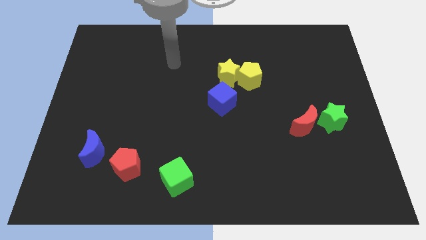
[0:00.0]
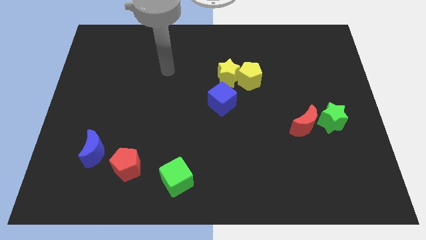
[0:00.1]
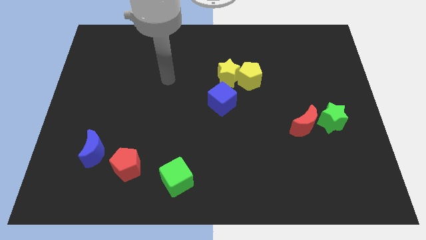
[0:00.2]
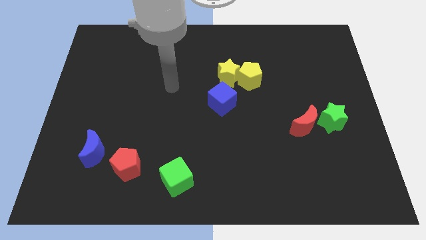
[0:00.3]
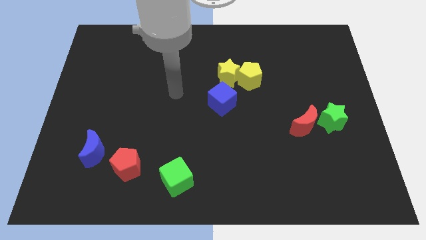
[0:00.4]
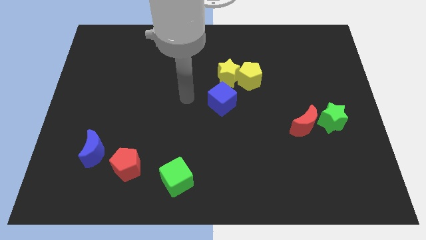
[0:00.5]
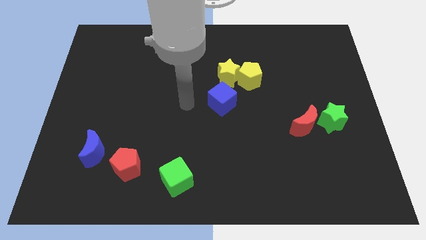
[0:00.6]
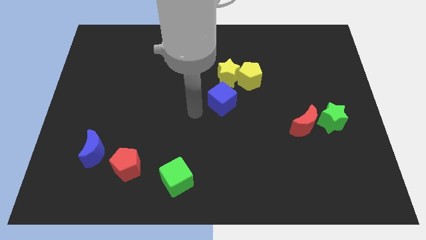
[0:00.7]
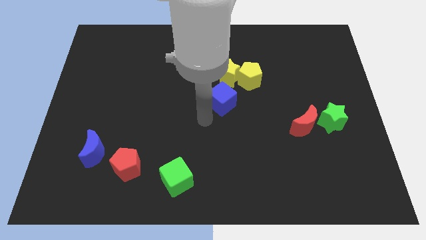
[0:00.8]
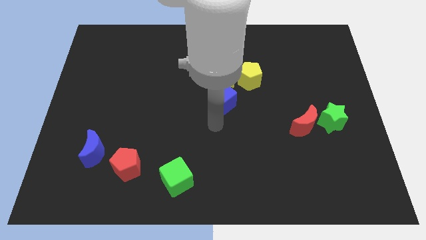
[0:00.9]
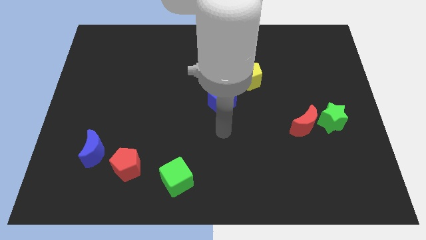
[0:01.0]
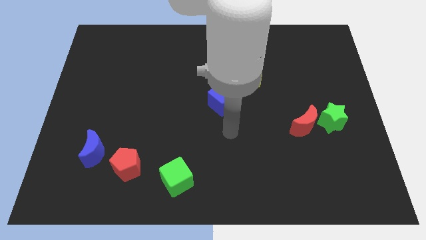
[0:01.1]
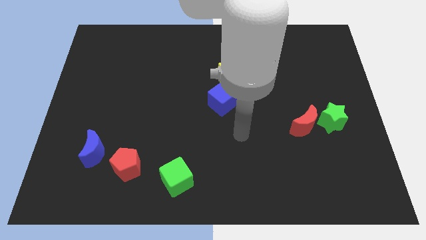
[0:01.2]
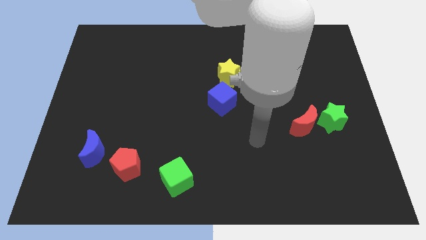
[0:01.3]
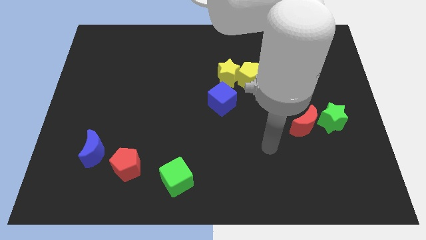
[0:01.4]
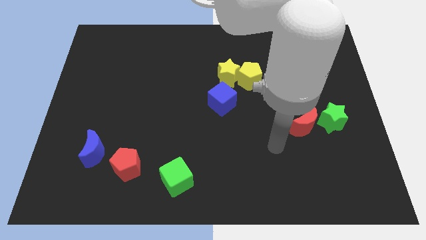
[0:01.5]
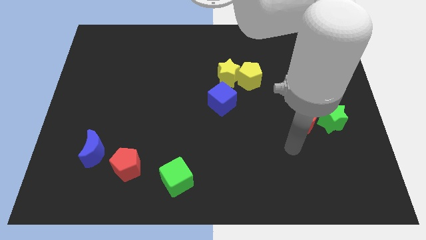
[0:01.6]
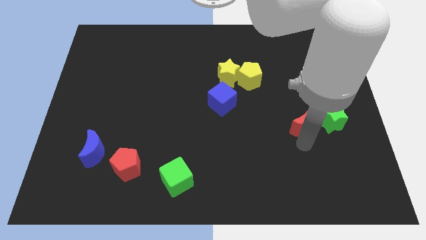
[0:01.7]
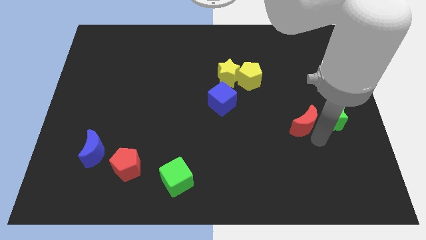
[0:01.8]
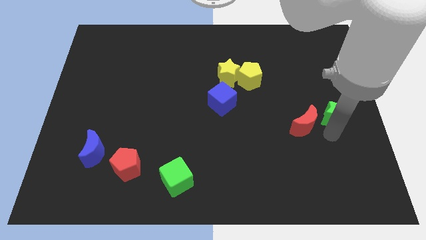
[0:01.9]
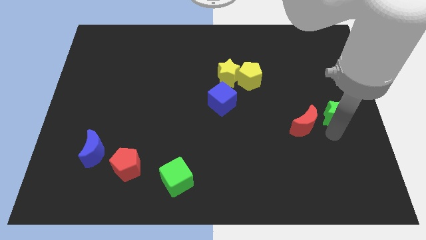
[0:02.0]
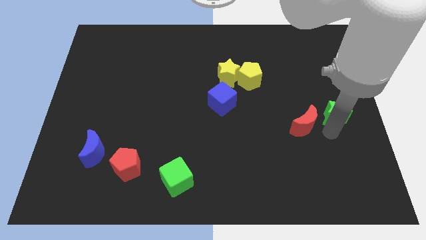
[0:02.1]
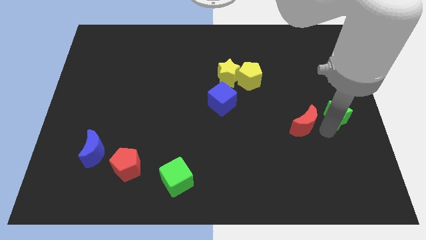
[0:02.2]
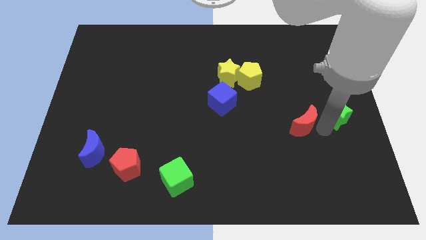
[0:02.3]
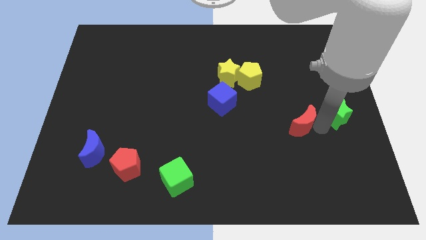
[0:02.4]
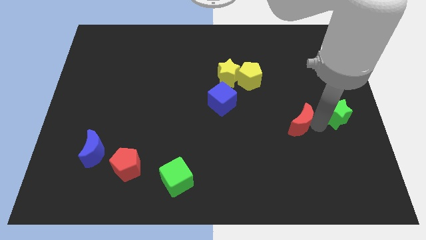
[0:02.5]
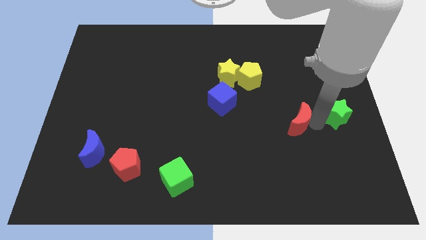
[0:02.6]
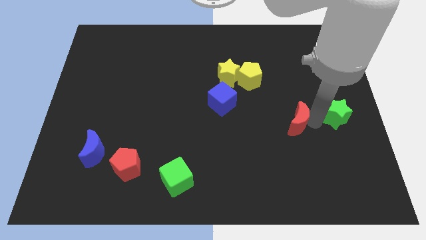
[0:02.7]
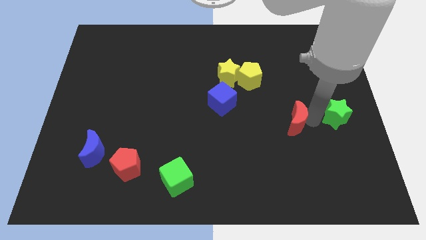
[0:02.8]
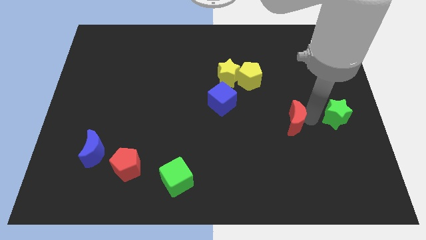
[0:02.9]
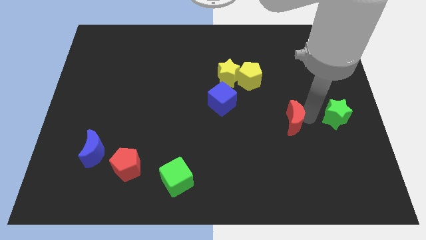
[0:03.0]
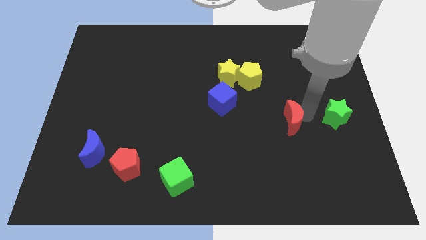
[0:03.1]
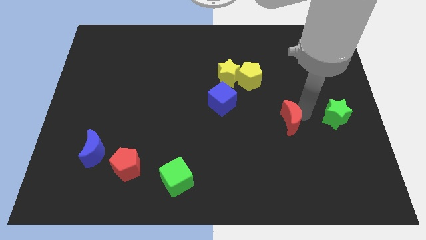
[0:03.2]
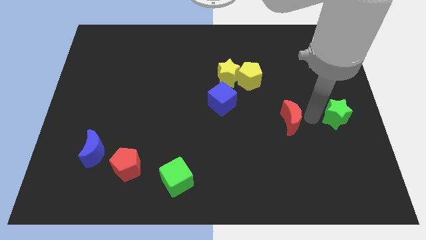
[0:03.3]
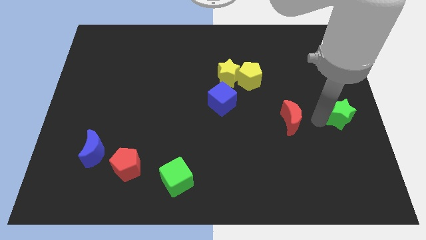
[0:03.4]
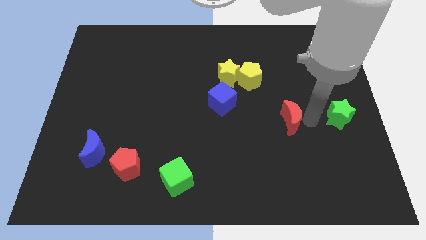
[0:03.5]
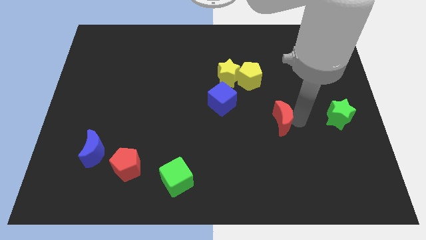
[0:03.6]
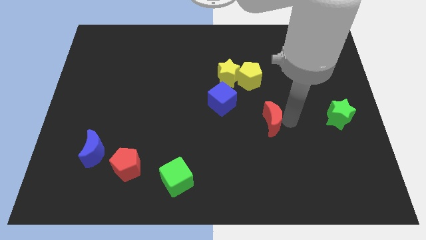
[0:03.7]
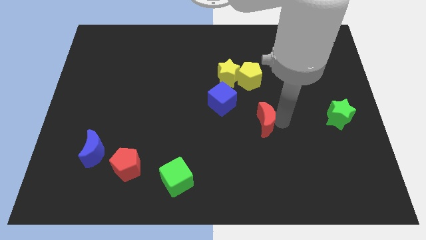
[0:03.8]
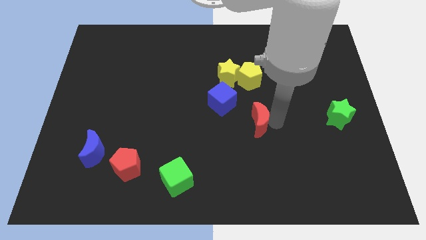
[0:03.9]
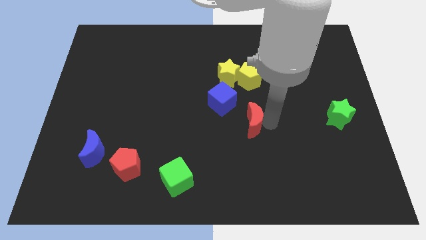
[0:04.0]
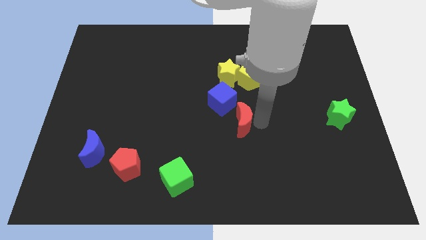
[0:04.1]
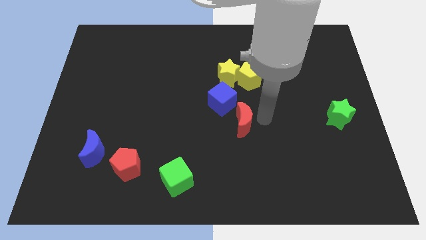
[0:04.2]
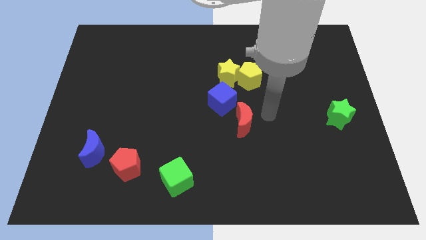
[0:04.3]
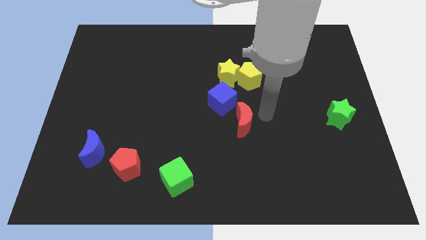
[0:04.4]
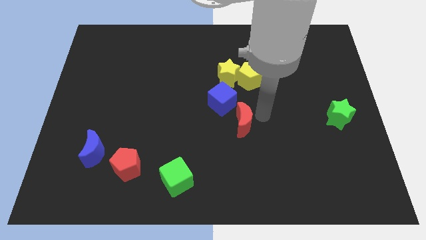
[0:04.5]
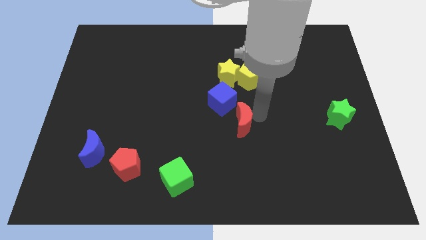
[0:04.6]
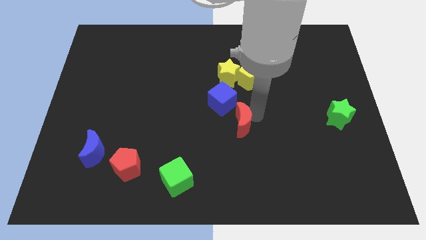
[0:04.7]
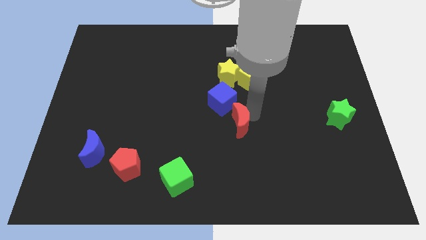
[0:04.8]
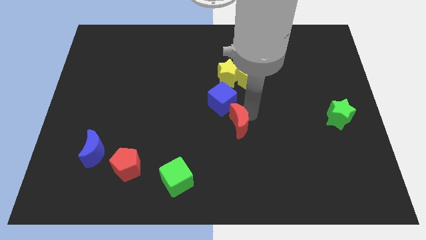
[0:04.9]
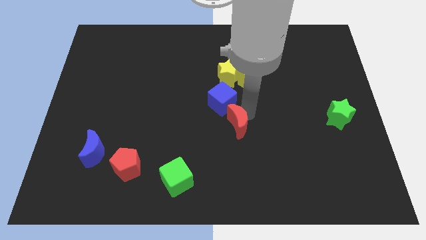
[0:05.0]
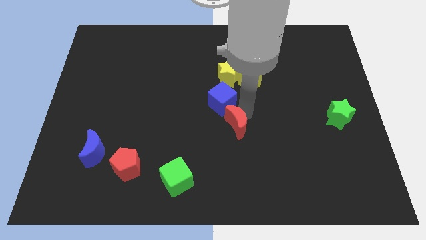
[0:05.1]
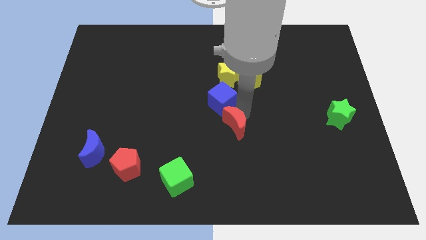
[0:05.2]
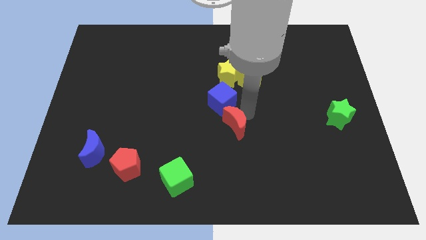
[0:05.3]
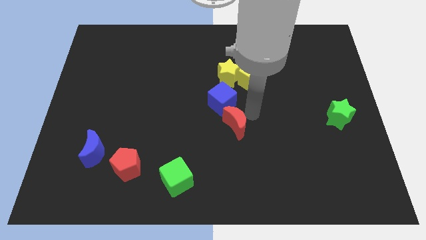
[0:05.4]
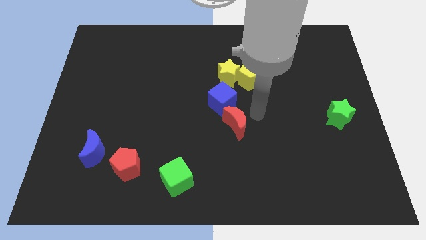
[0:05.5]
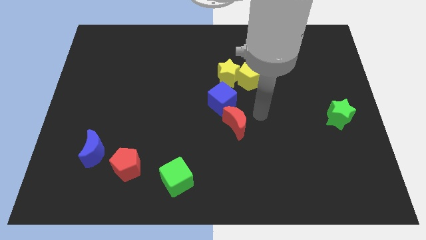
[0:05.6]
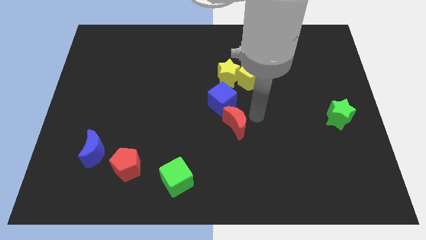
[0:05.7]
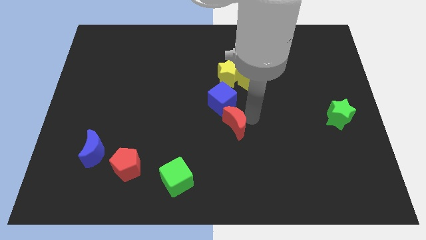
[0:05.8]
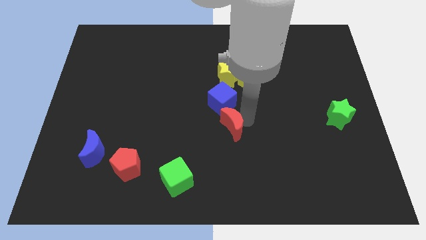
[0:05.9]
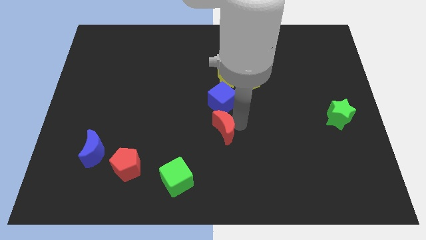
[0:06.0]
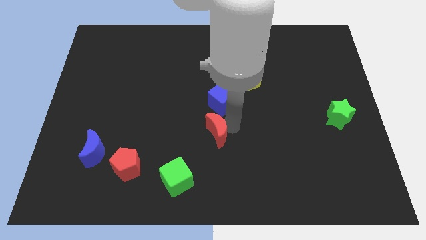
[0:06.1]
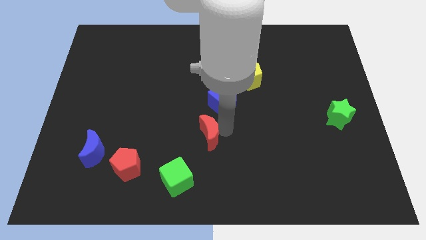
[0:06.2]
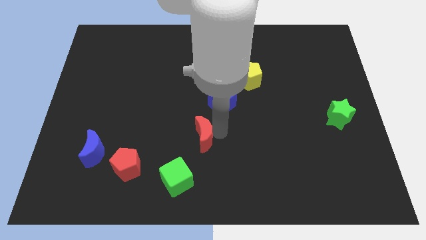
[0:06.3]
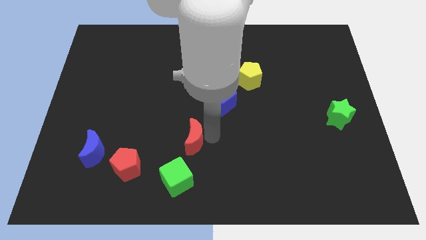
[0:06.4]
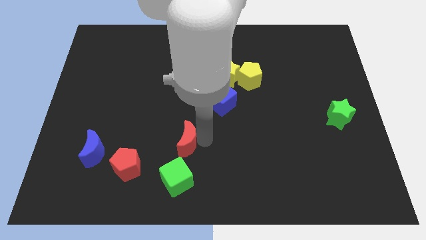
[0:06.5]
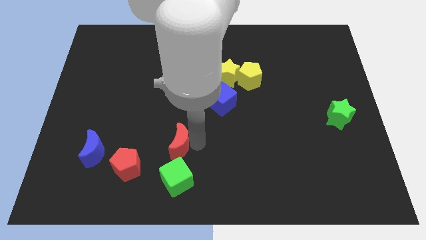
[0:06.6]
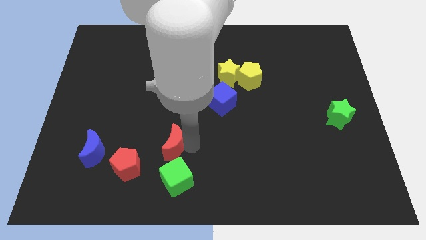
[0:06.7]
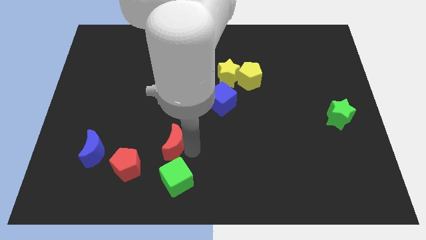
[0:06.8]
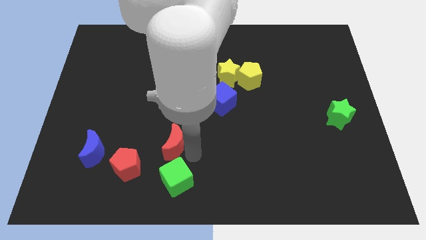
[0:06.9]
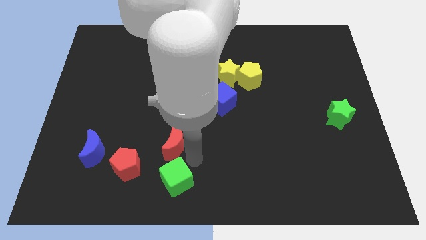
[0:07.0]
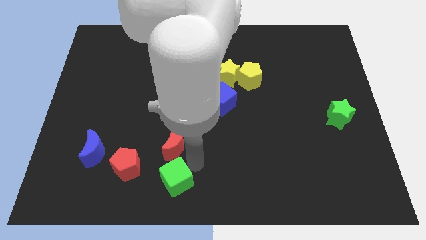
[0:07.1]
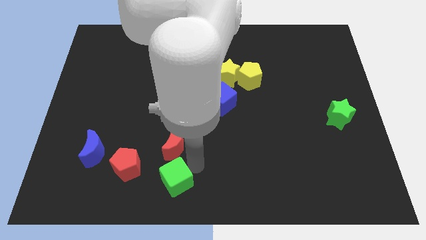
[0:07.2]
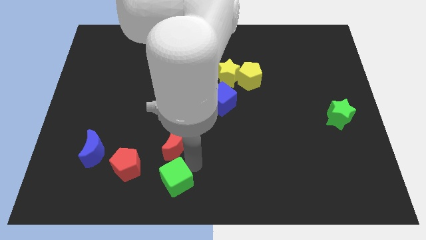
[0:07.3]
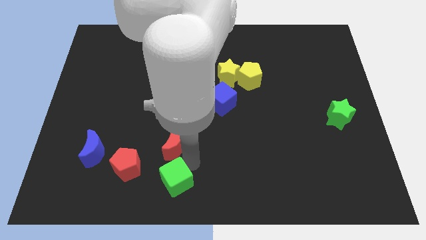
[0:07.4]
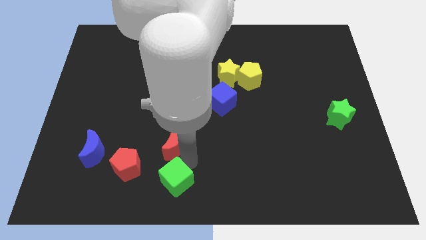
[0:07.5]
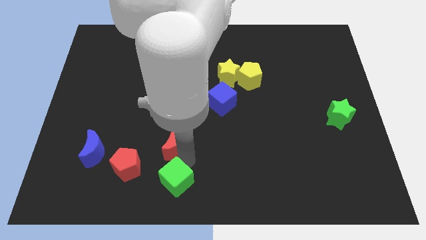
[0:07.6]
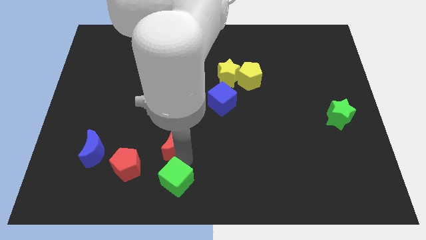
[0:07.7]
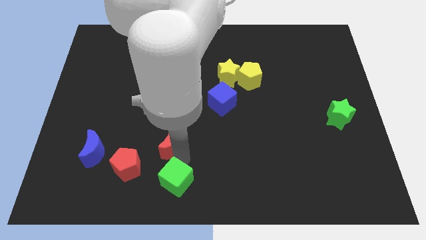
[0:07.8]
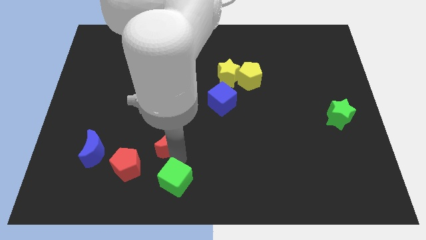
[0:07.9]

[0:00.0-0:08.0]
move the red moon to the right side of the blue moon
